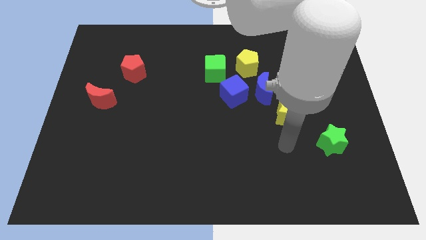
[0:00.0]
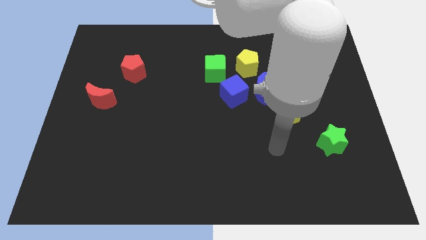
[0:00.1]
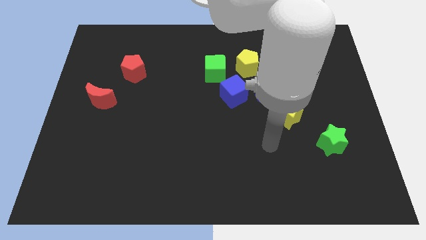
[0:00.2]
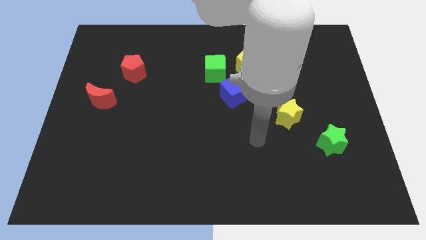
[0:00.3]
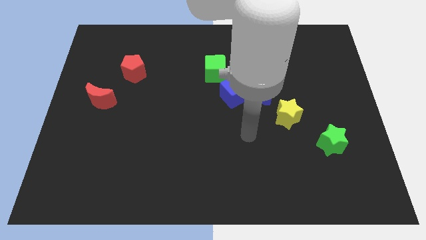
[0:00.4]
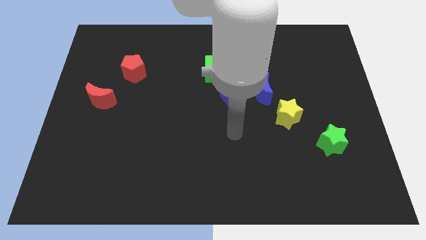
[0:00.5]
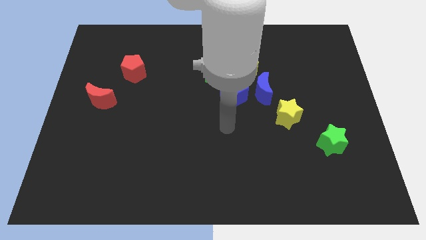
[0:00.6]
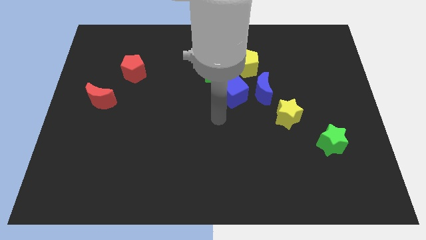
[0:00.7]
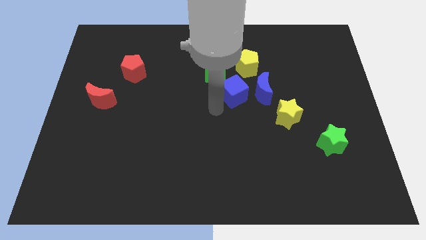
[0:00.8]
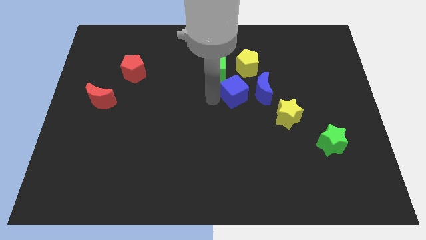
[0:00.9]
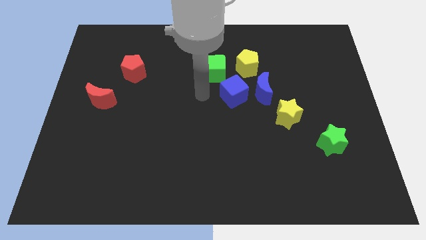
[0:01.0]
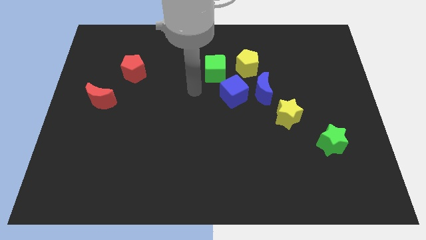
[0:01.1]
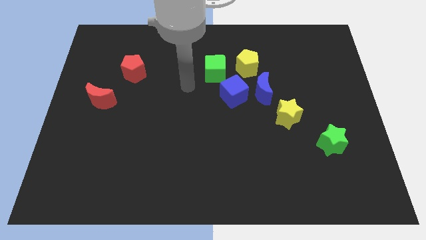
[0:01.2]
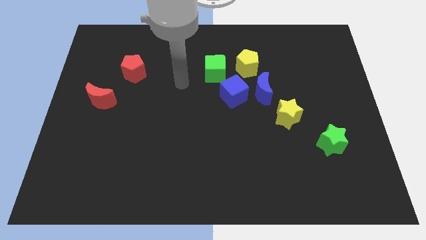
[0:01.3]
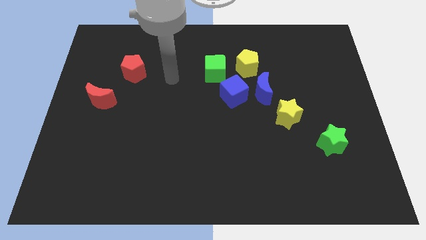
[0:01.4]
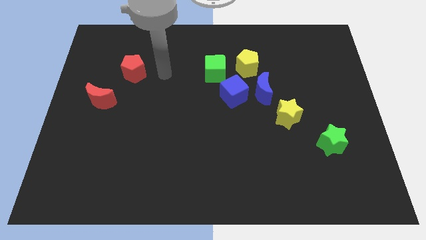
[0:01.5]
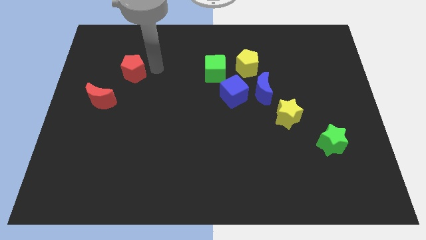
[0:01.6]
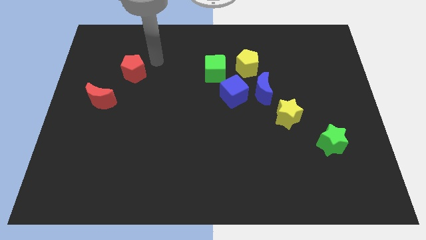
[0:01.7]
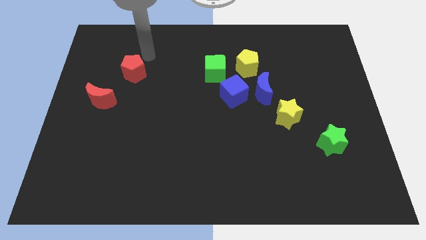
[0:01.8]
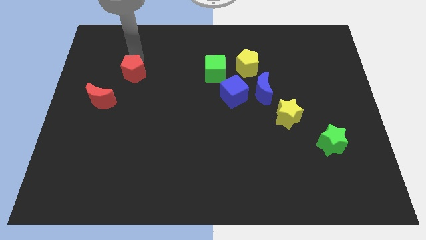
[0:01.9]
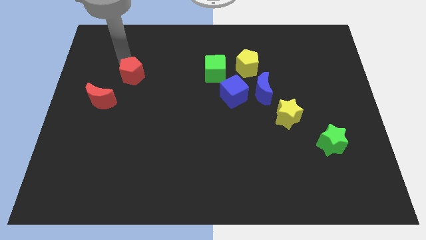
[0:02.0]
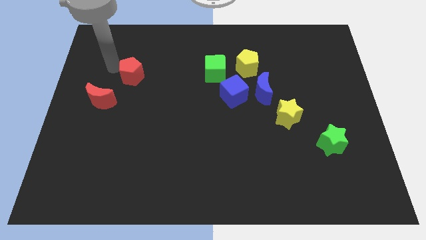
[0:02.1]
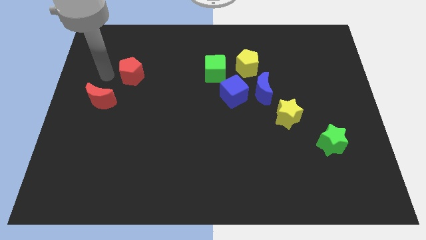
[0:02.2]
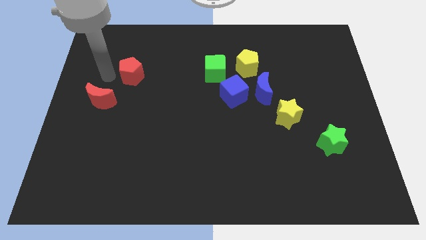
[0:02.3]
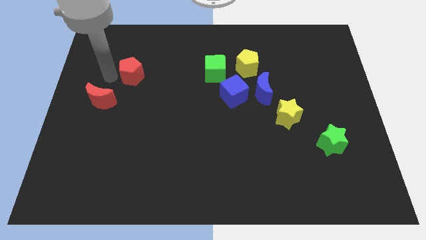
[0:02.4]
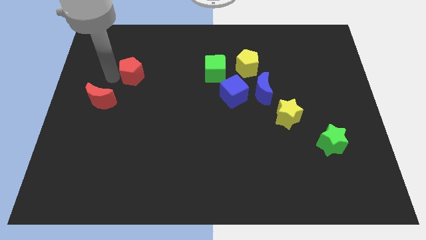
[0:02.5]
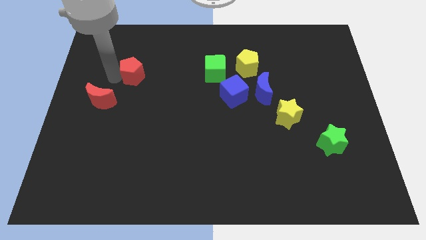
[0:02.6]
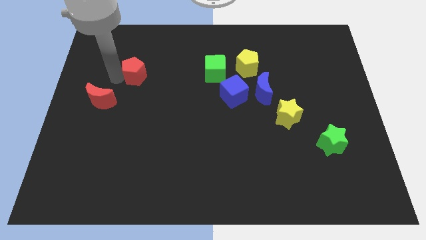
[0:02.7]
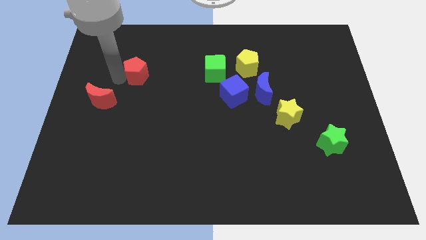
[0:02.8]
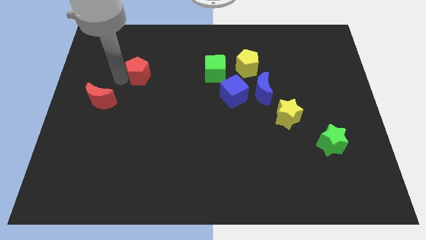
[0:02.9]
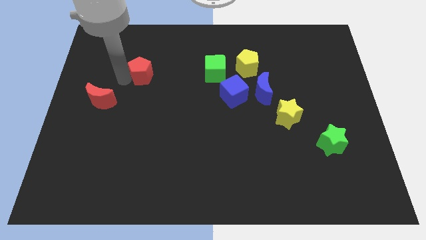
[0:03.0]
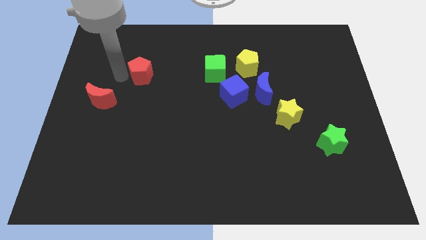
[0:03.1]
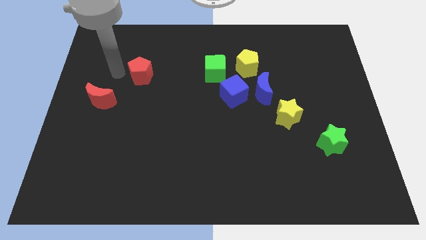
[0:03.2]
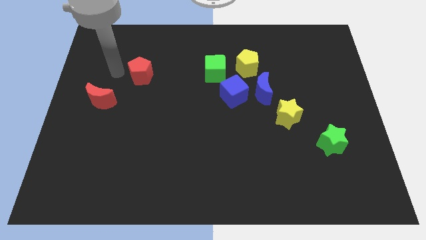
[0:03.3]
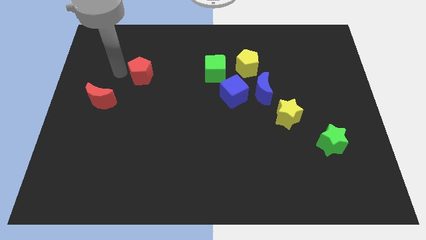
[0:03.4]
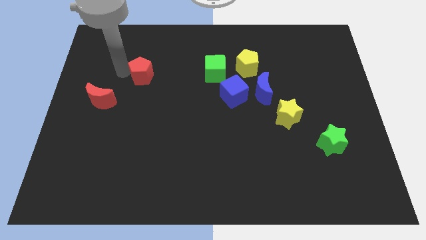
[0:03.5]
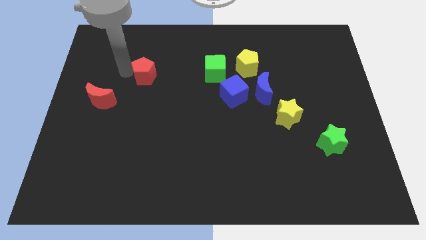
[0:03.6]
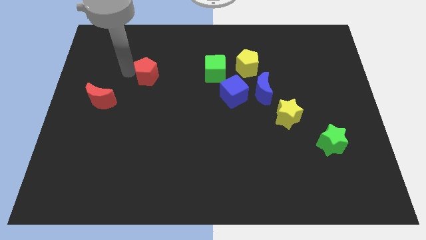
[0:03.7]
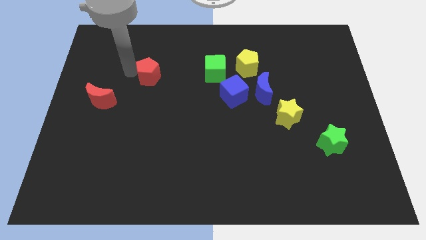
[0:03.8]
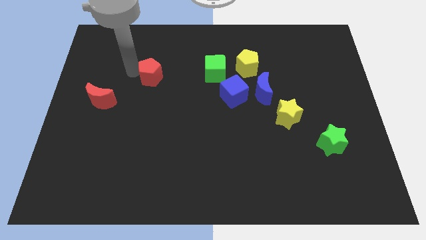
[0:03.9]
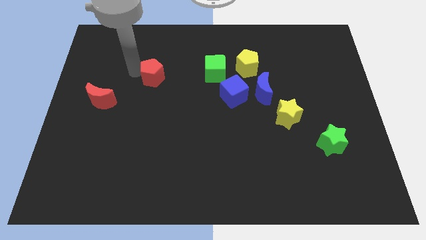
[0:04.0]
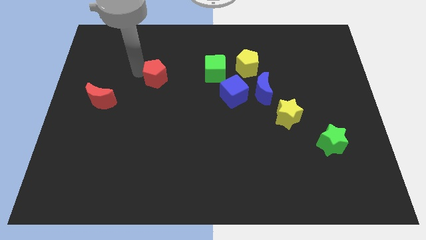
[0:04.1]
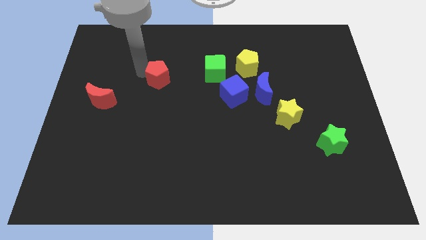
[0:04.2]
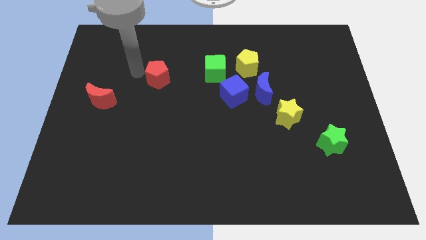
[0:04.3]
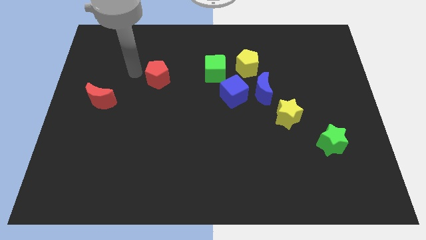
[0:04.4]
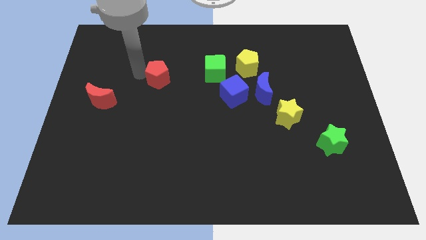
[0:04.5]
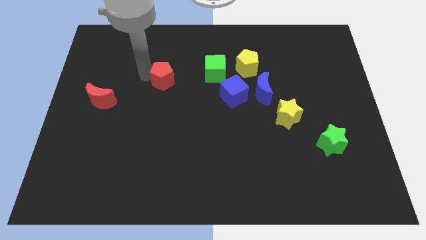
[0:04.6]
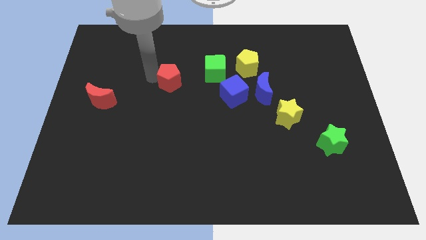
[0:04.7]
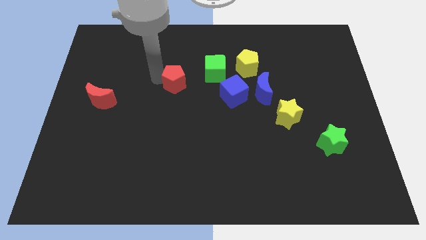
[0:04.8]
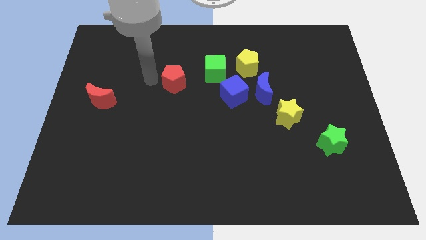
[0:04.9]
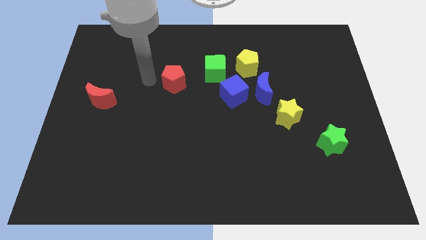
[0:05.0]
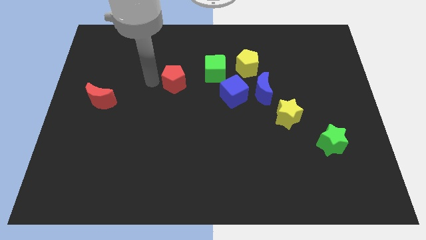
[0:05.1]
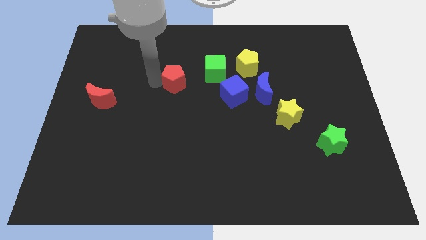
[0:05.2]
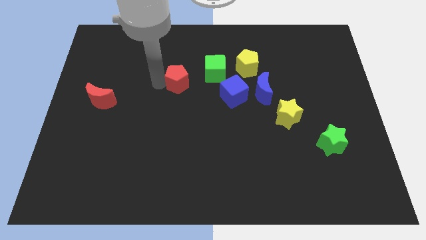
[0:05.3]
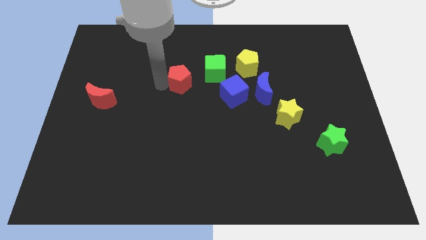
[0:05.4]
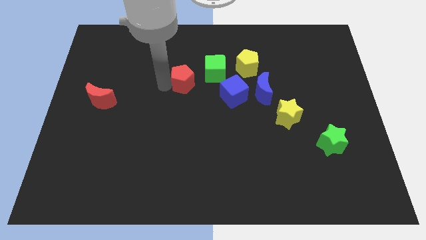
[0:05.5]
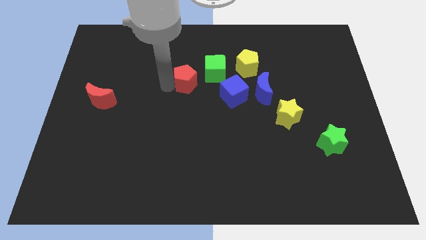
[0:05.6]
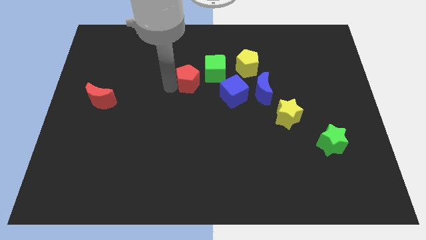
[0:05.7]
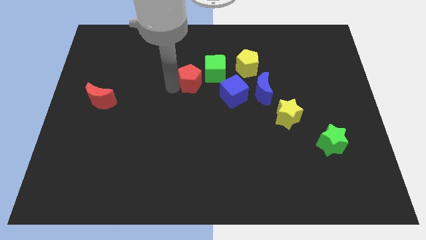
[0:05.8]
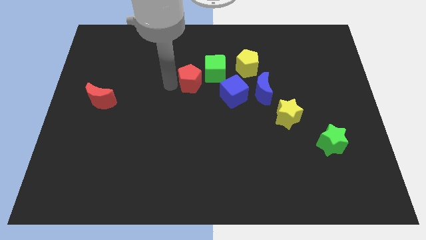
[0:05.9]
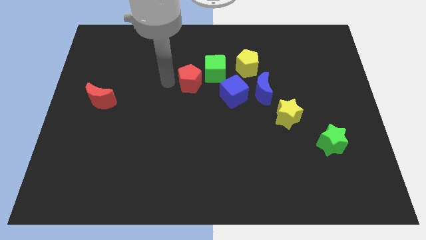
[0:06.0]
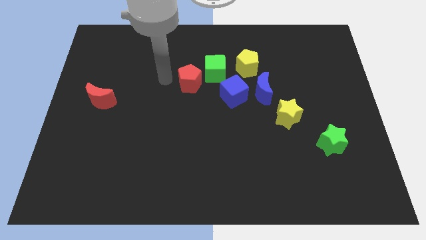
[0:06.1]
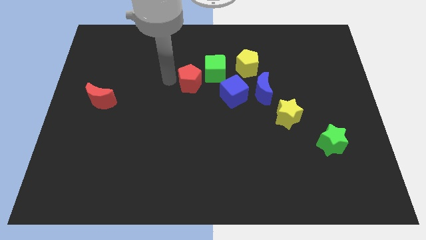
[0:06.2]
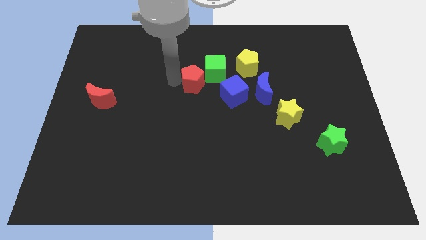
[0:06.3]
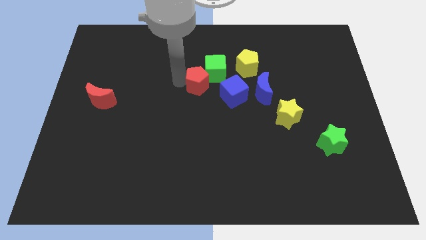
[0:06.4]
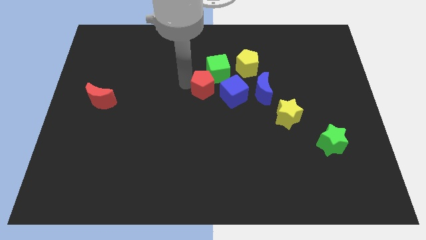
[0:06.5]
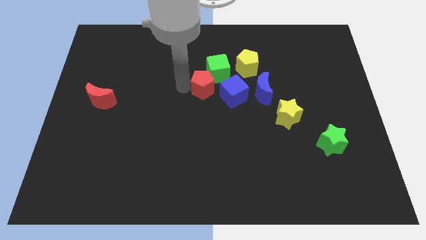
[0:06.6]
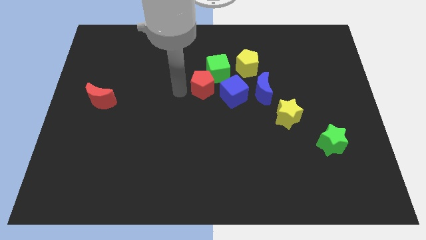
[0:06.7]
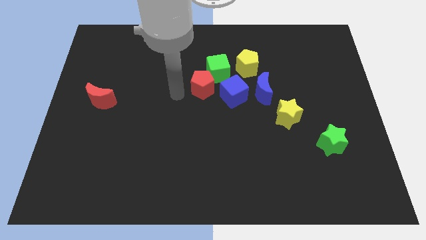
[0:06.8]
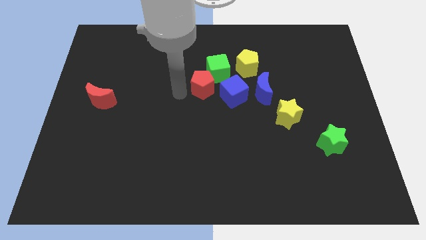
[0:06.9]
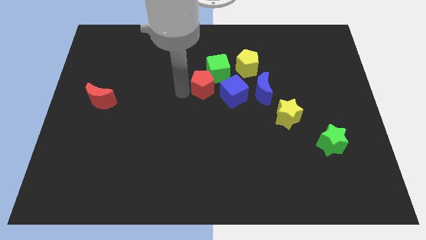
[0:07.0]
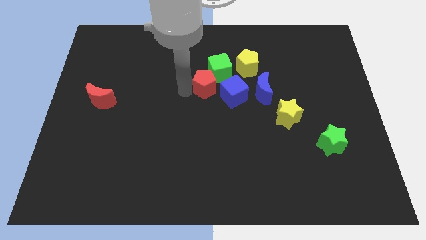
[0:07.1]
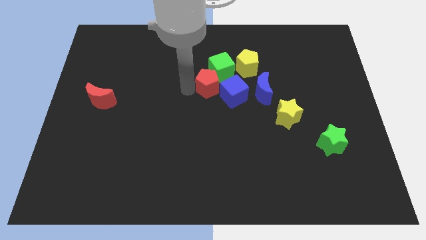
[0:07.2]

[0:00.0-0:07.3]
slide the red pentagon diagonally down and to the left of the yellow pentagon
